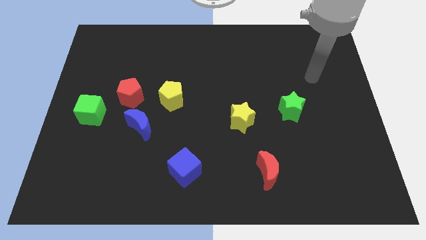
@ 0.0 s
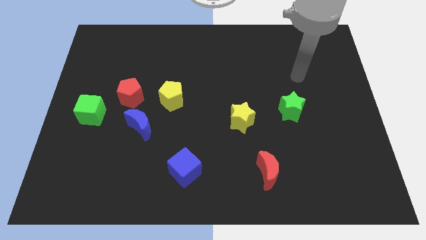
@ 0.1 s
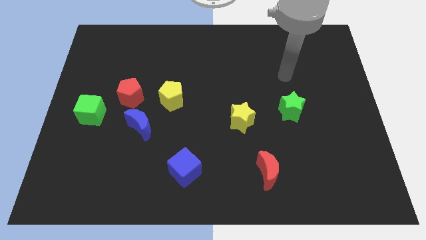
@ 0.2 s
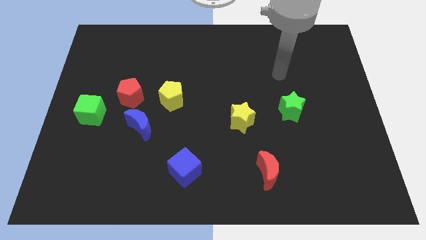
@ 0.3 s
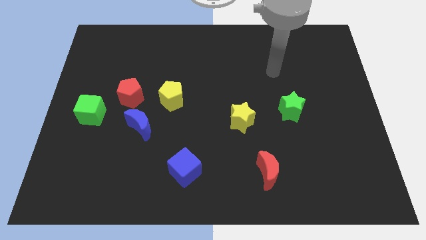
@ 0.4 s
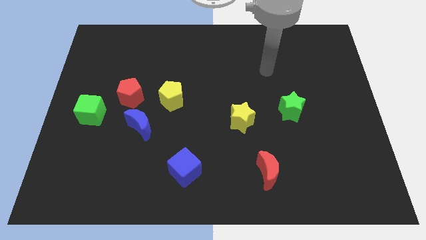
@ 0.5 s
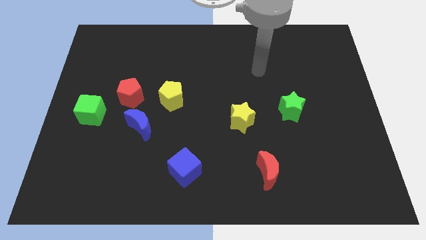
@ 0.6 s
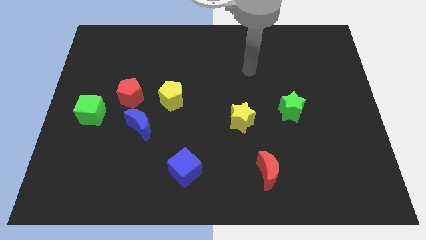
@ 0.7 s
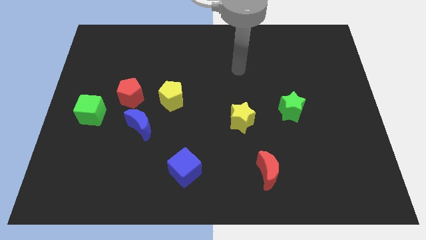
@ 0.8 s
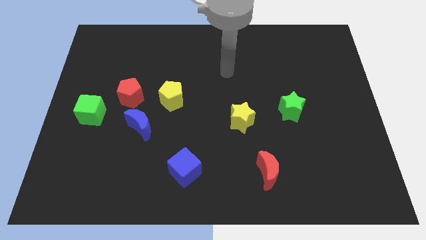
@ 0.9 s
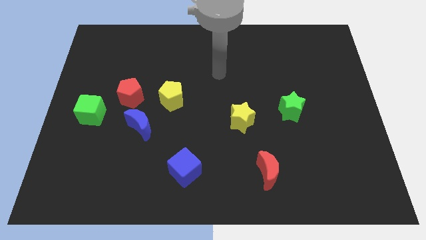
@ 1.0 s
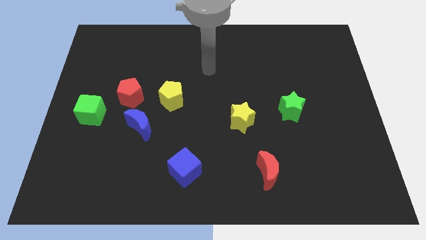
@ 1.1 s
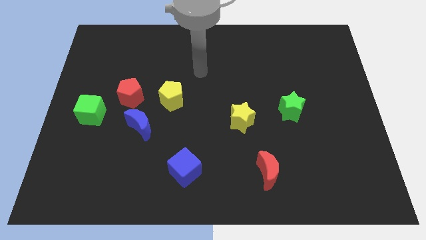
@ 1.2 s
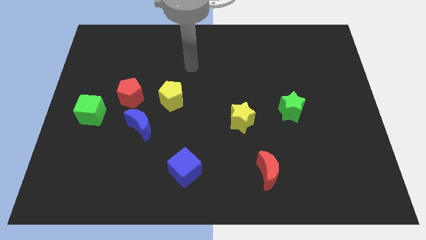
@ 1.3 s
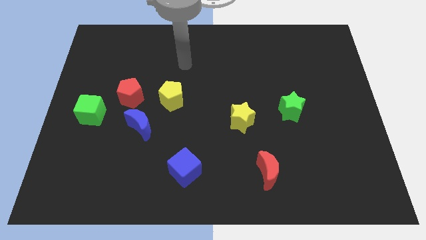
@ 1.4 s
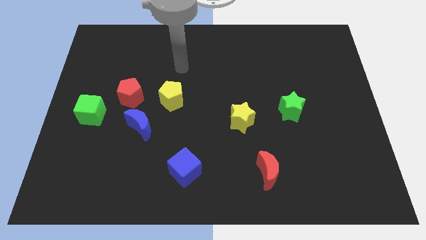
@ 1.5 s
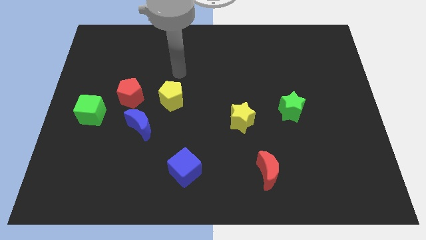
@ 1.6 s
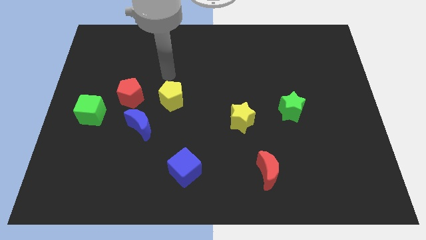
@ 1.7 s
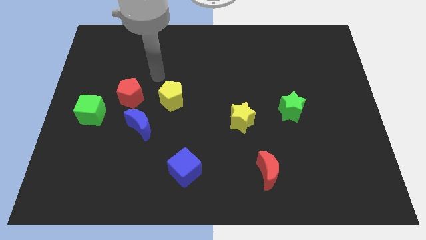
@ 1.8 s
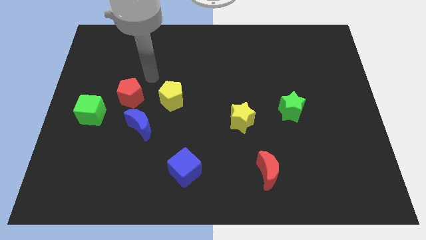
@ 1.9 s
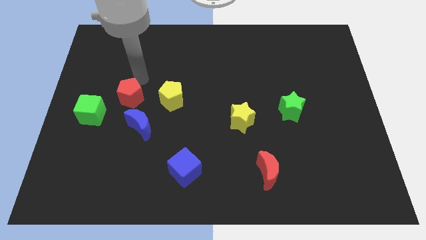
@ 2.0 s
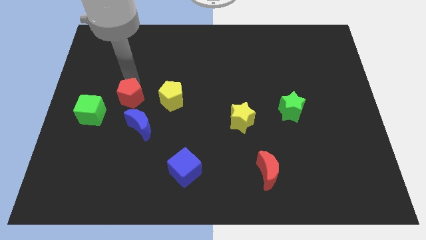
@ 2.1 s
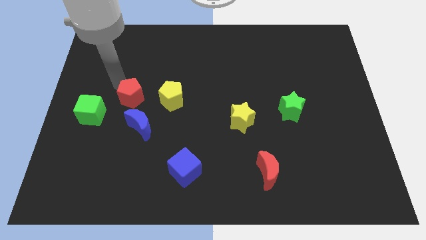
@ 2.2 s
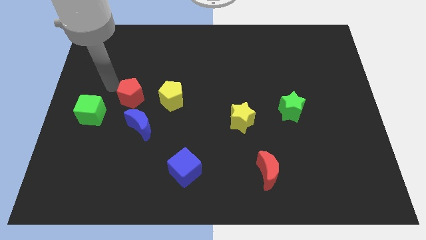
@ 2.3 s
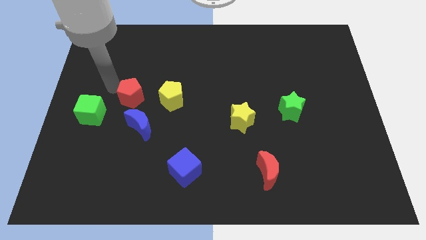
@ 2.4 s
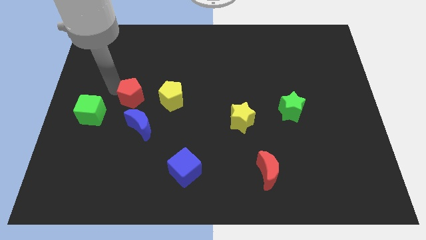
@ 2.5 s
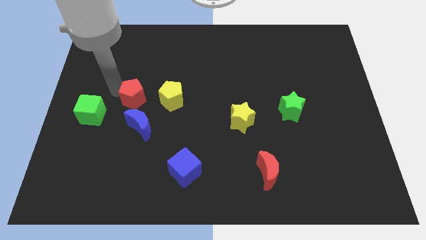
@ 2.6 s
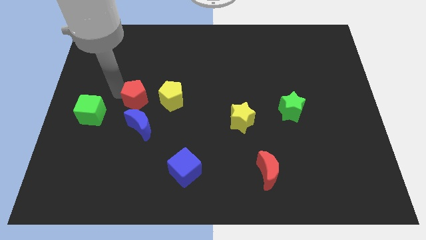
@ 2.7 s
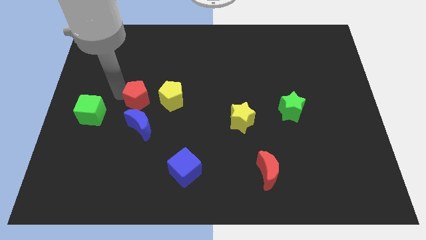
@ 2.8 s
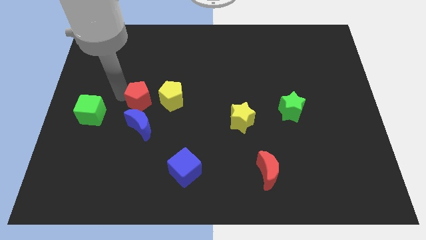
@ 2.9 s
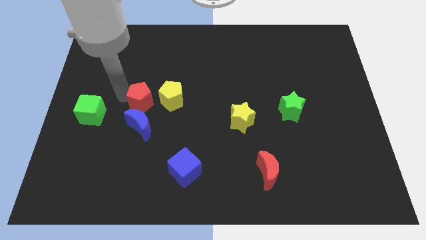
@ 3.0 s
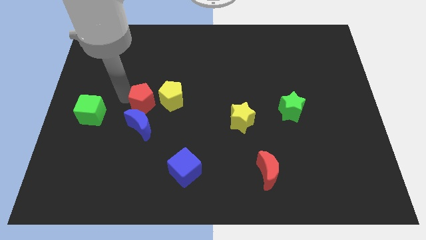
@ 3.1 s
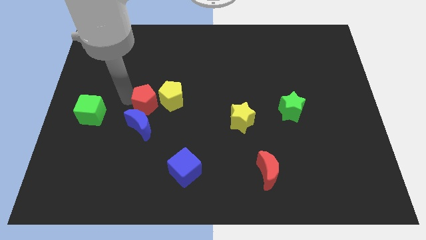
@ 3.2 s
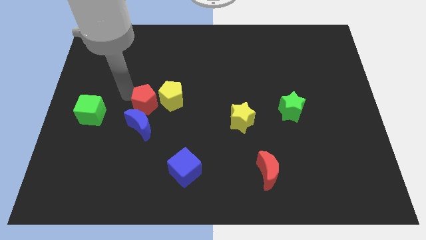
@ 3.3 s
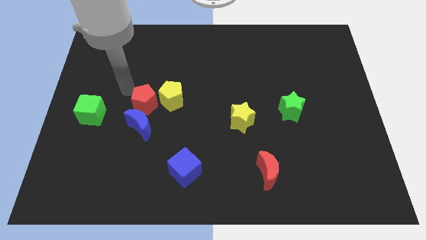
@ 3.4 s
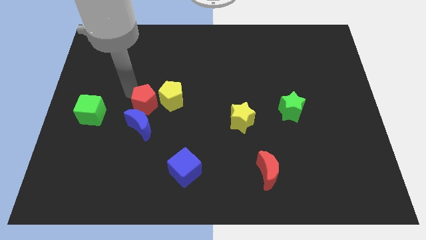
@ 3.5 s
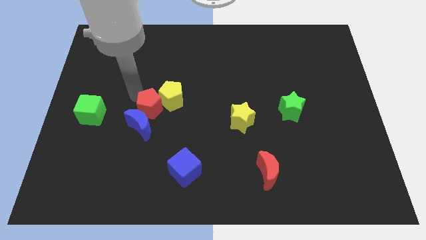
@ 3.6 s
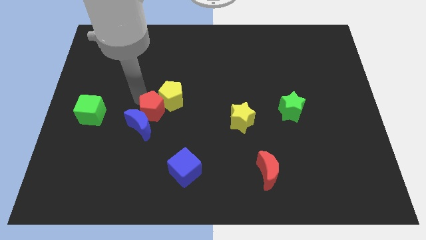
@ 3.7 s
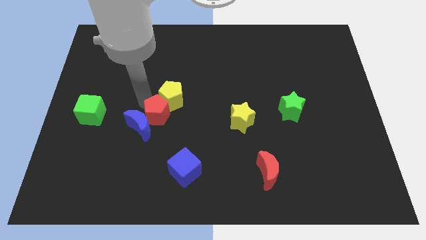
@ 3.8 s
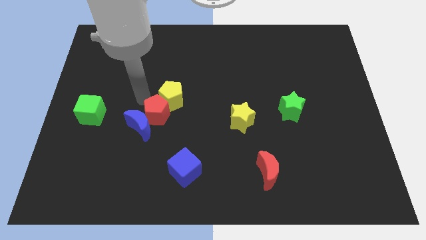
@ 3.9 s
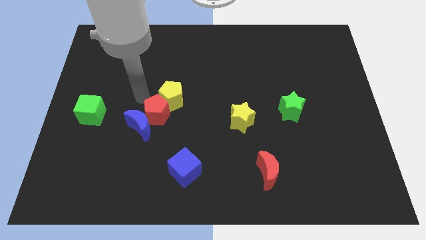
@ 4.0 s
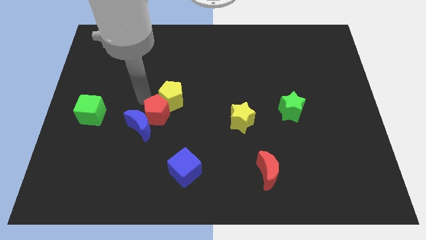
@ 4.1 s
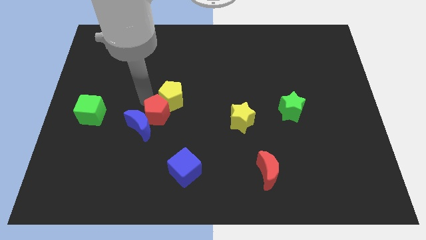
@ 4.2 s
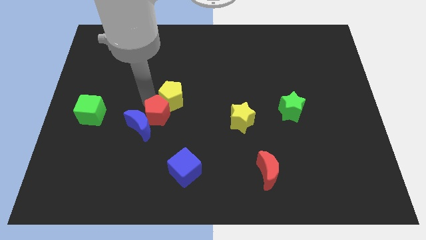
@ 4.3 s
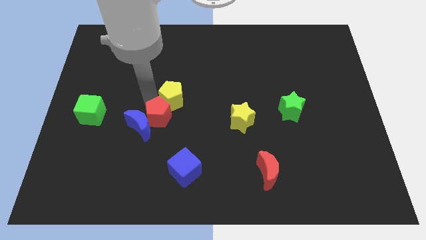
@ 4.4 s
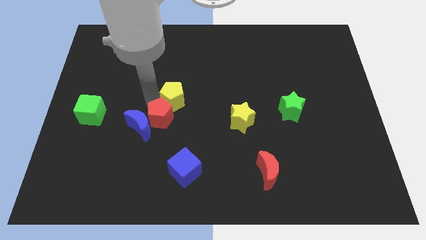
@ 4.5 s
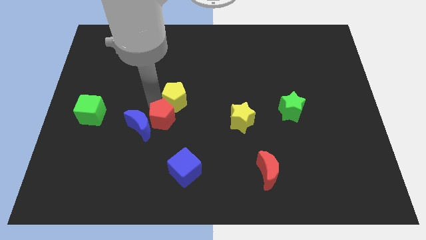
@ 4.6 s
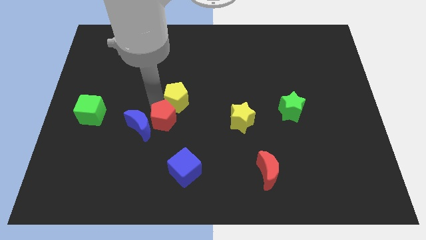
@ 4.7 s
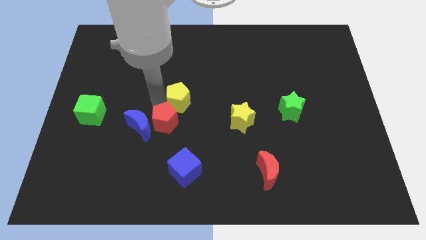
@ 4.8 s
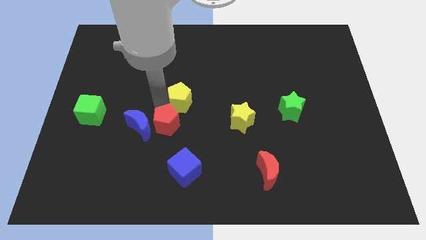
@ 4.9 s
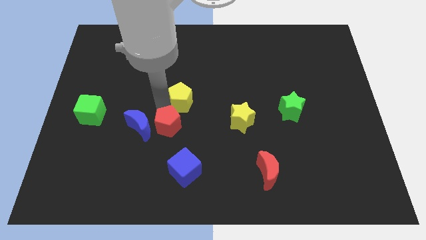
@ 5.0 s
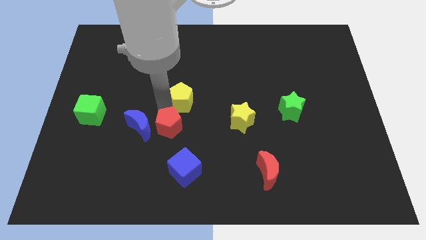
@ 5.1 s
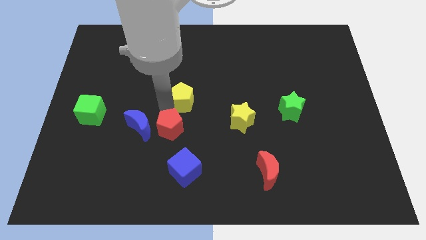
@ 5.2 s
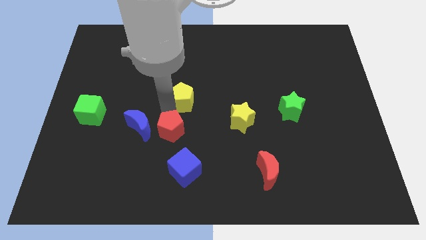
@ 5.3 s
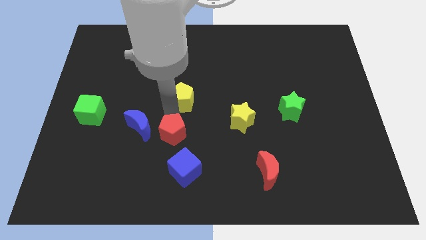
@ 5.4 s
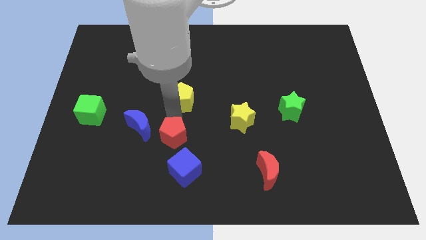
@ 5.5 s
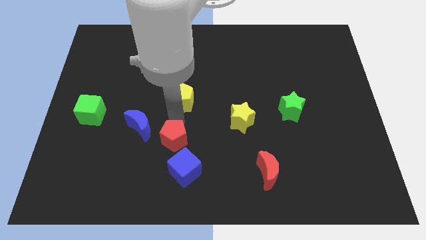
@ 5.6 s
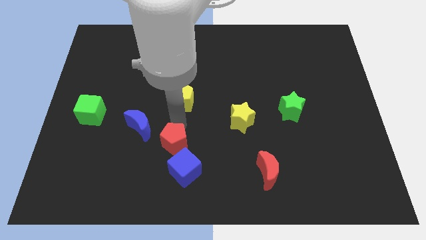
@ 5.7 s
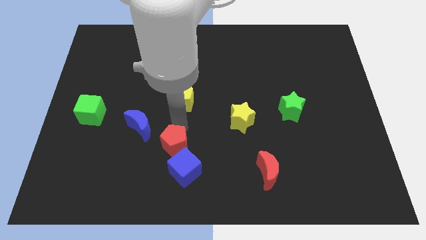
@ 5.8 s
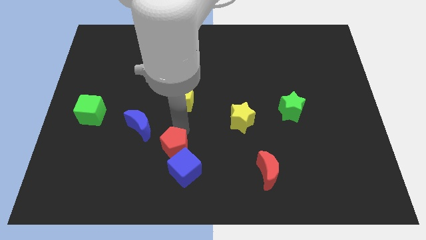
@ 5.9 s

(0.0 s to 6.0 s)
push the red pentagon to the blue cube

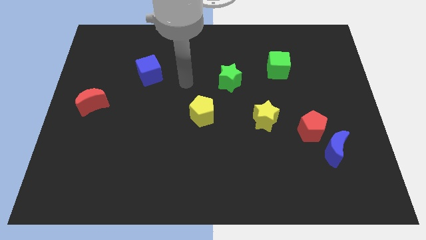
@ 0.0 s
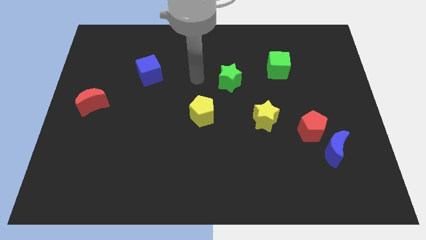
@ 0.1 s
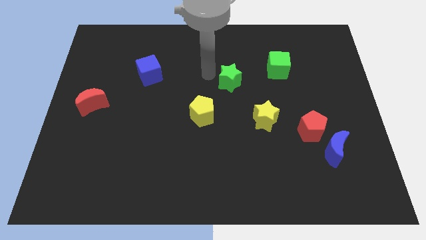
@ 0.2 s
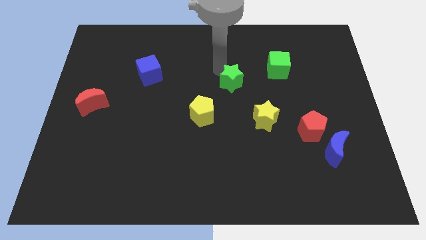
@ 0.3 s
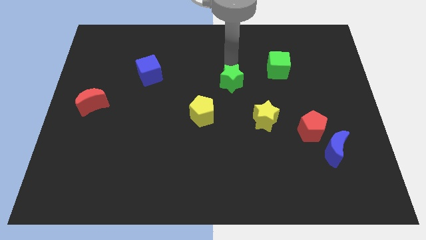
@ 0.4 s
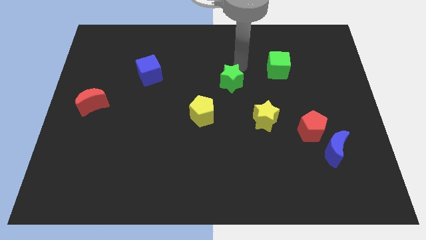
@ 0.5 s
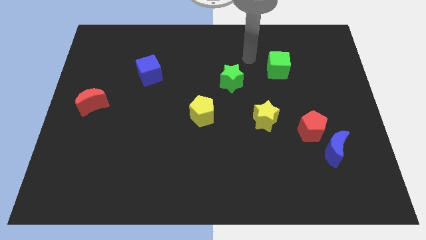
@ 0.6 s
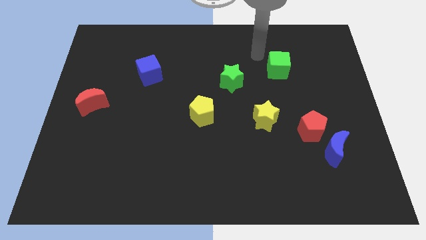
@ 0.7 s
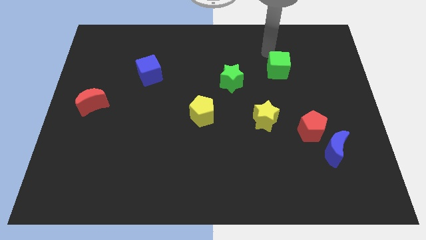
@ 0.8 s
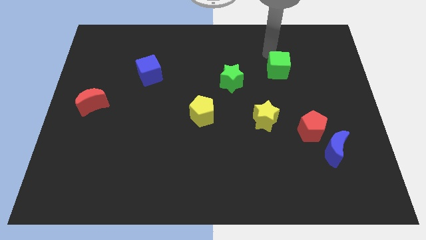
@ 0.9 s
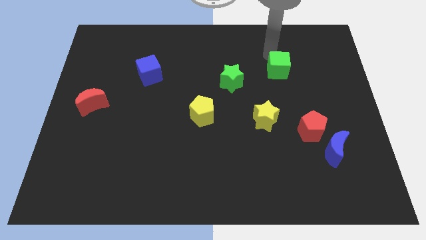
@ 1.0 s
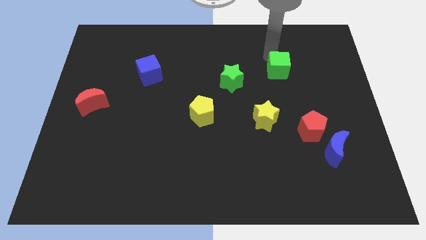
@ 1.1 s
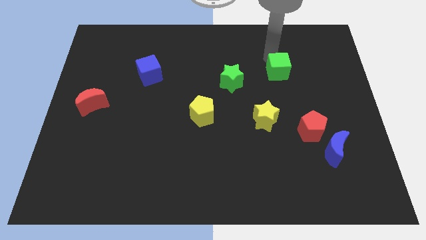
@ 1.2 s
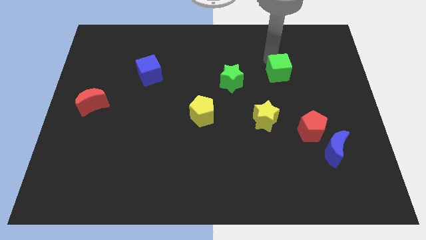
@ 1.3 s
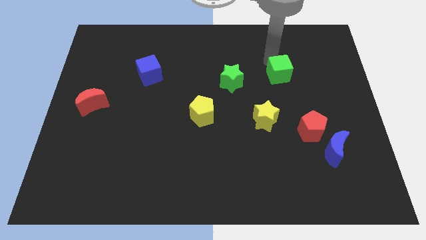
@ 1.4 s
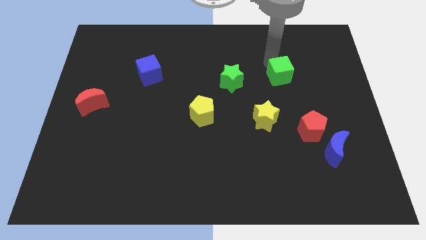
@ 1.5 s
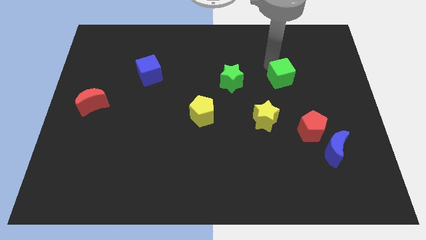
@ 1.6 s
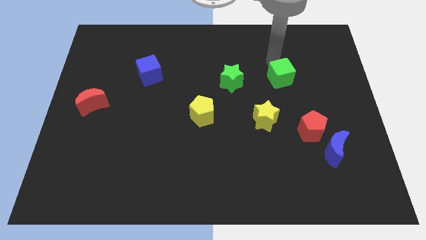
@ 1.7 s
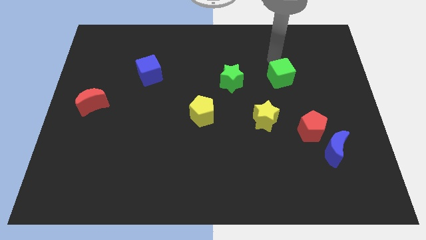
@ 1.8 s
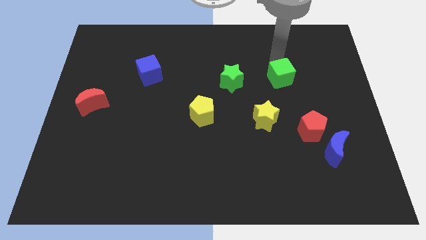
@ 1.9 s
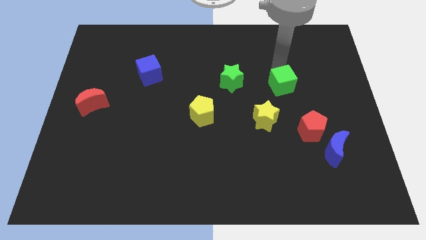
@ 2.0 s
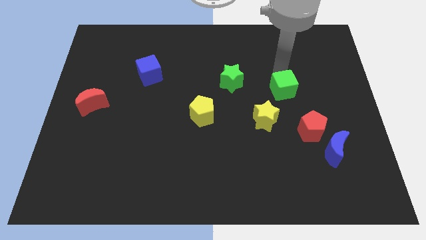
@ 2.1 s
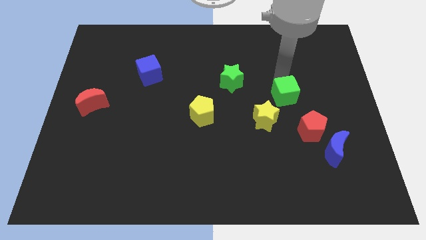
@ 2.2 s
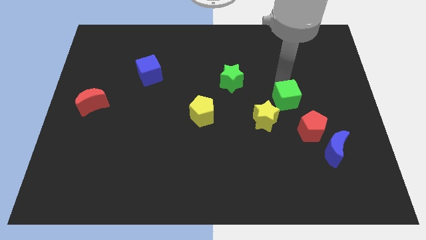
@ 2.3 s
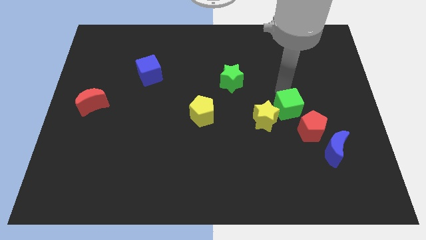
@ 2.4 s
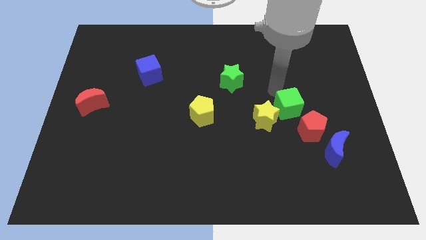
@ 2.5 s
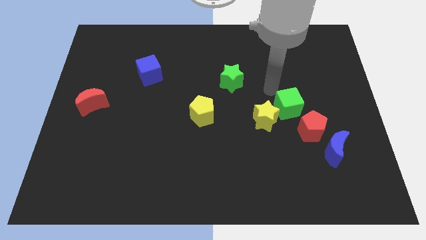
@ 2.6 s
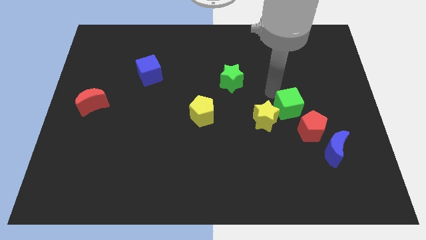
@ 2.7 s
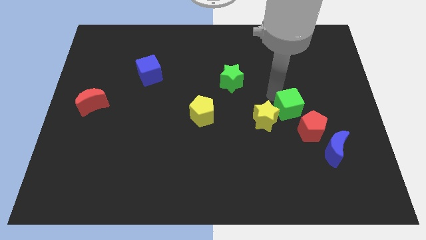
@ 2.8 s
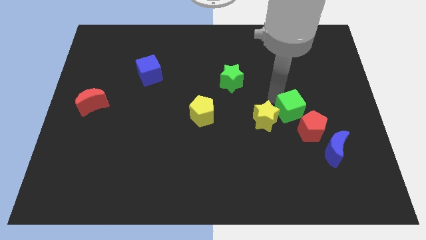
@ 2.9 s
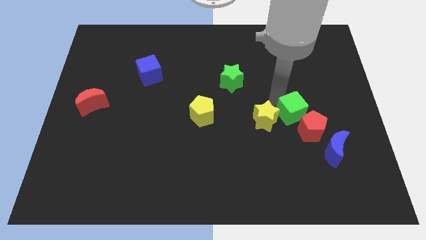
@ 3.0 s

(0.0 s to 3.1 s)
put the green cube close to the red pentagon
